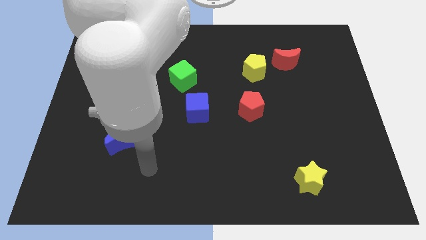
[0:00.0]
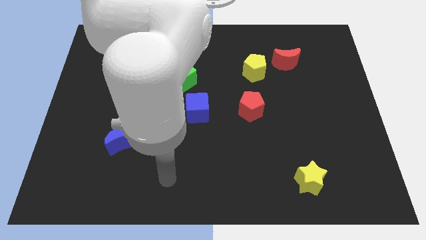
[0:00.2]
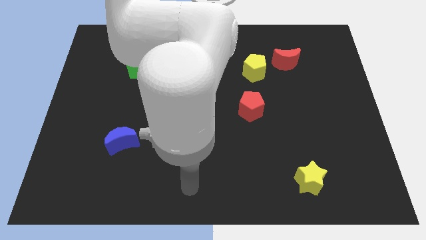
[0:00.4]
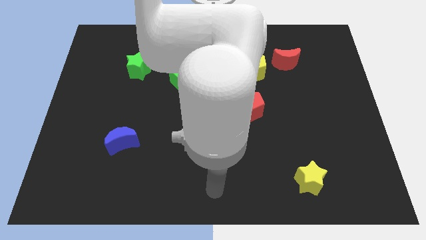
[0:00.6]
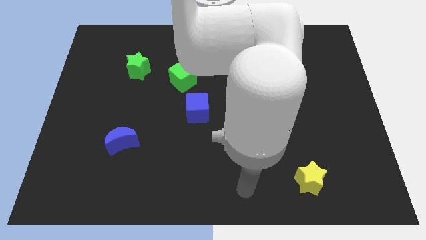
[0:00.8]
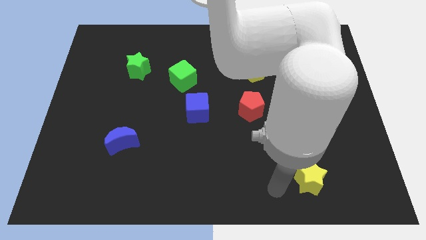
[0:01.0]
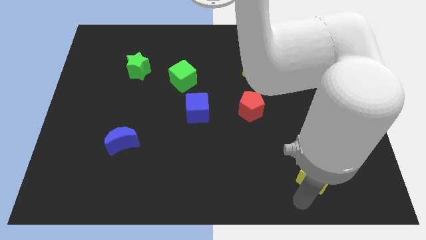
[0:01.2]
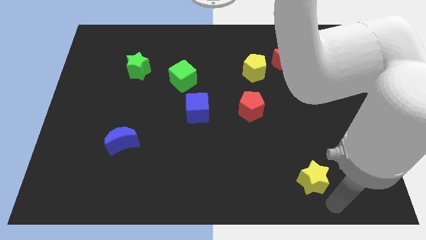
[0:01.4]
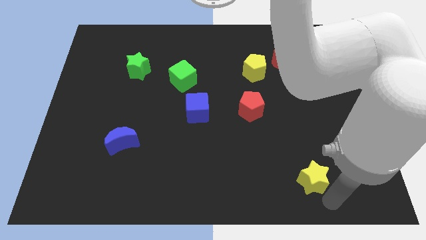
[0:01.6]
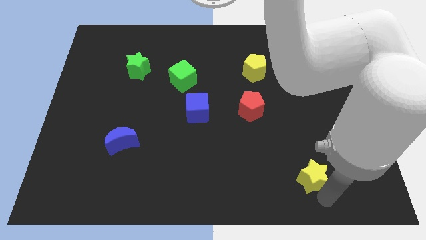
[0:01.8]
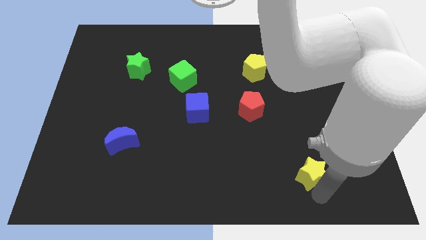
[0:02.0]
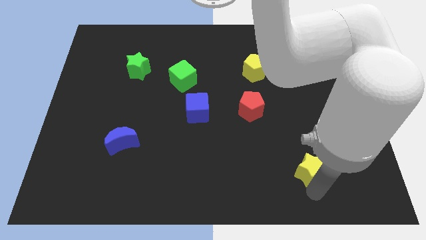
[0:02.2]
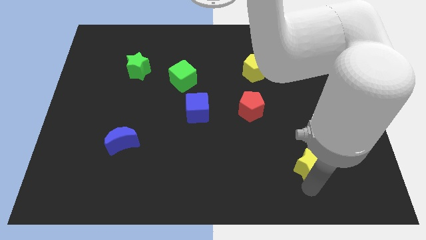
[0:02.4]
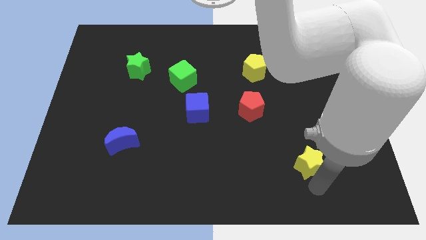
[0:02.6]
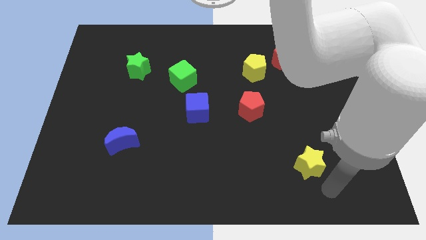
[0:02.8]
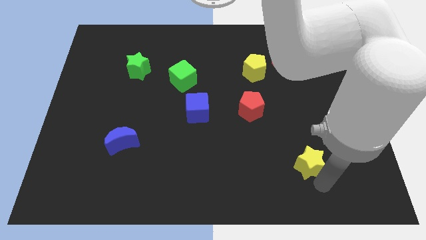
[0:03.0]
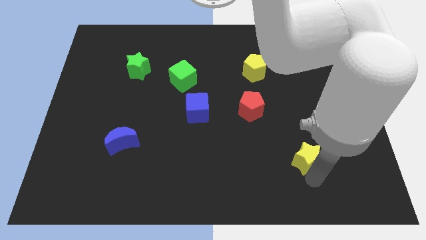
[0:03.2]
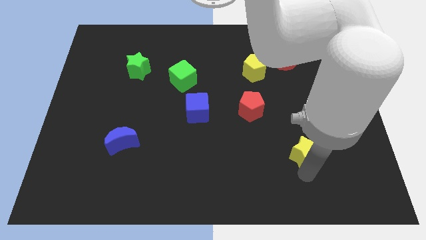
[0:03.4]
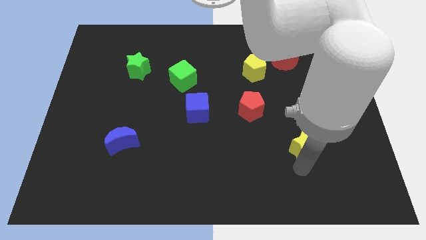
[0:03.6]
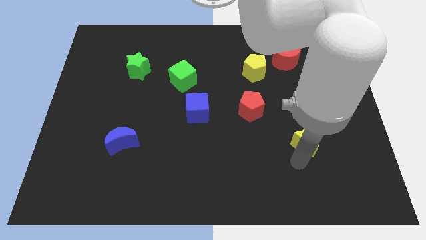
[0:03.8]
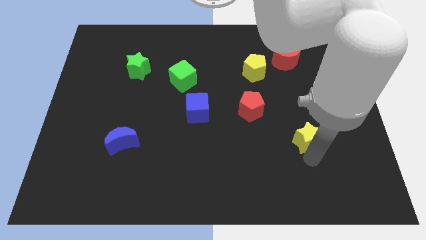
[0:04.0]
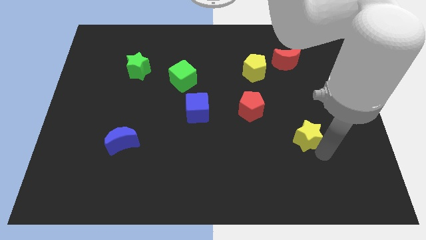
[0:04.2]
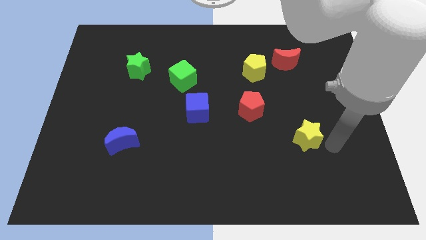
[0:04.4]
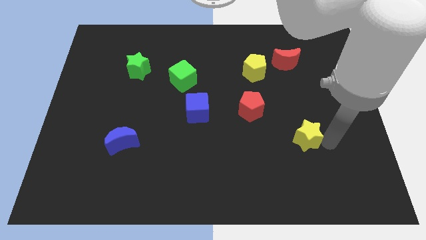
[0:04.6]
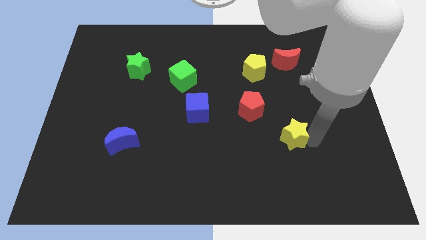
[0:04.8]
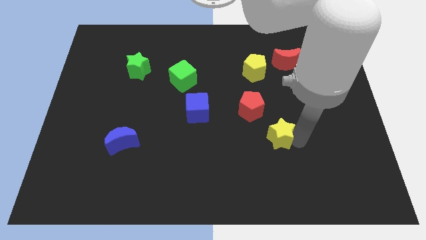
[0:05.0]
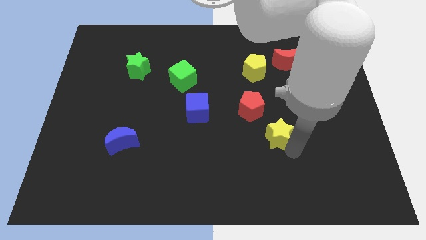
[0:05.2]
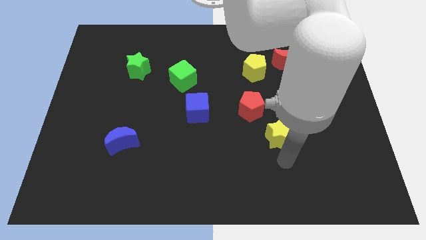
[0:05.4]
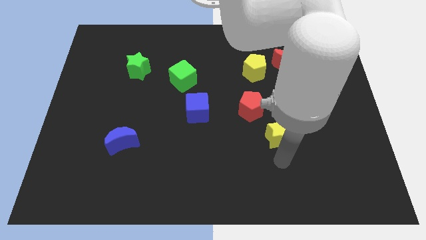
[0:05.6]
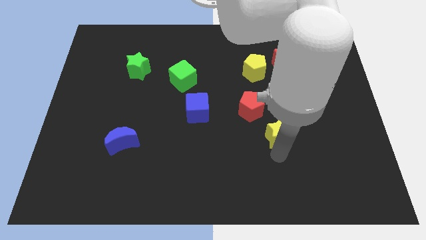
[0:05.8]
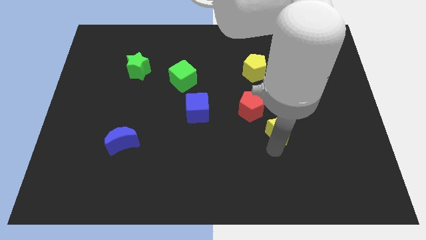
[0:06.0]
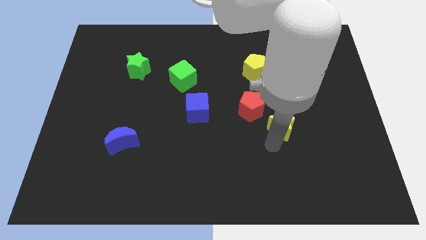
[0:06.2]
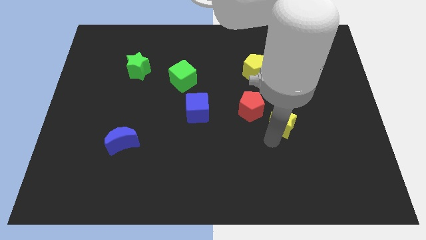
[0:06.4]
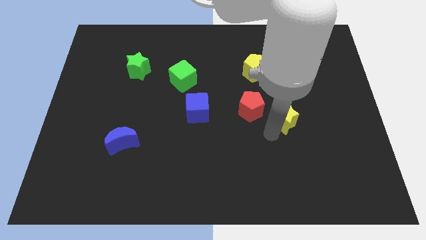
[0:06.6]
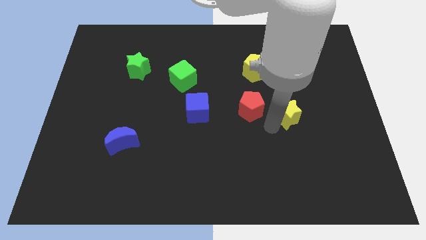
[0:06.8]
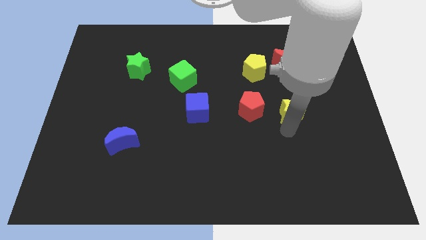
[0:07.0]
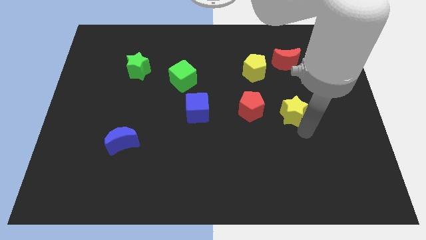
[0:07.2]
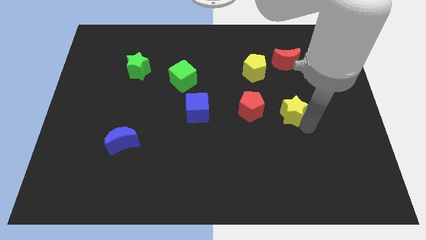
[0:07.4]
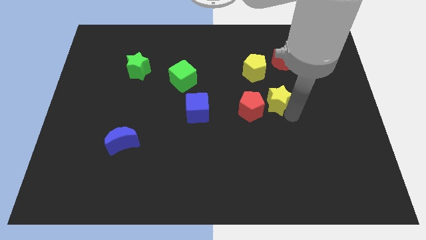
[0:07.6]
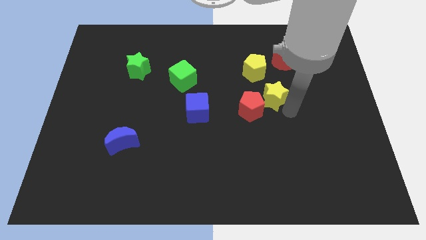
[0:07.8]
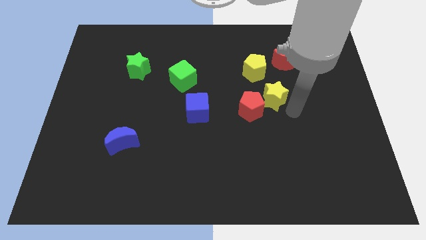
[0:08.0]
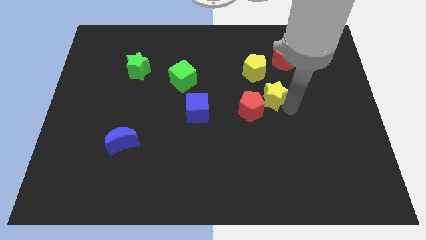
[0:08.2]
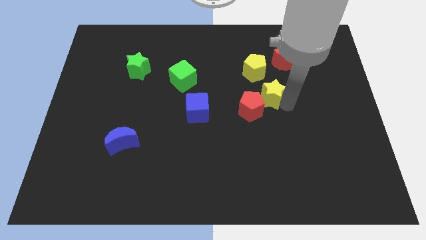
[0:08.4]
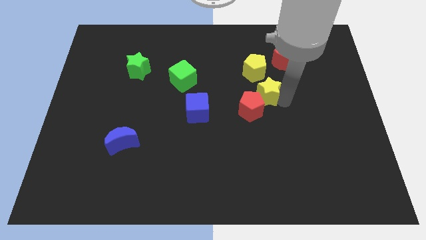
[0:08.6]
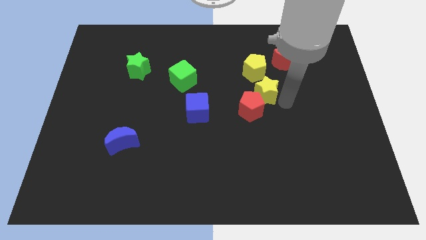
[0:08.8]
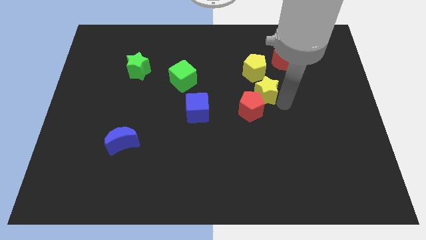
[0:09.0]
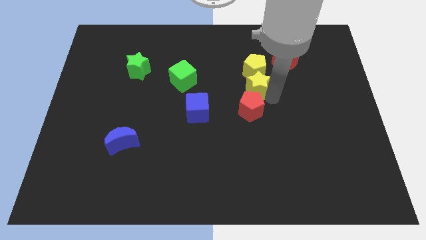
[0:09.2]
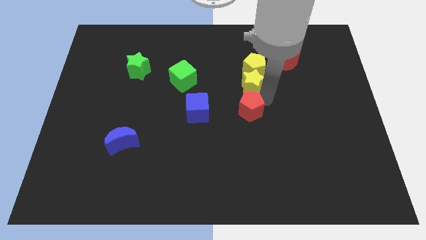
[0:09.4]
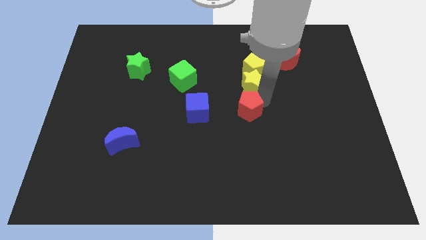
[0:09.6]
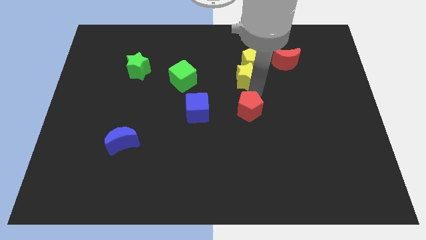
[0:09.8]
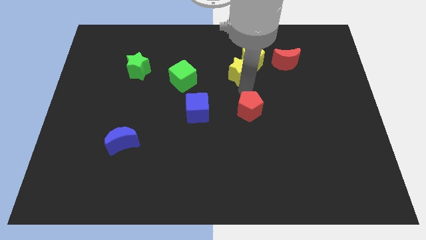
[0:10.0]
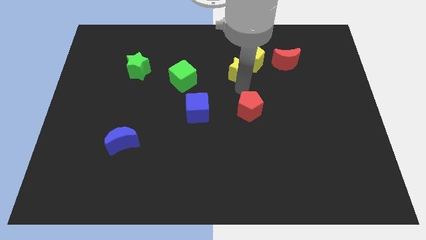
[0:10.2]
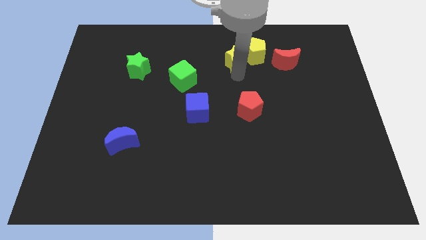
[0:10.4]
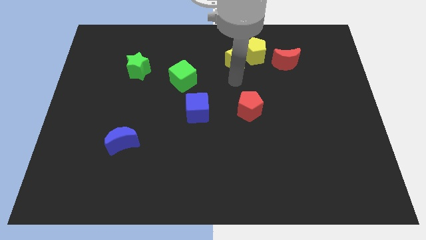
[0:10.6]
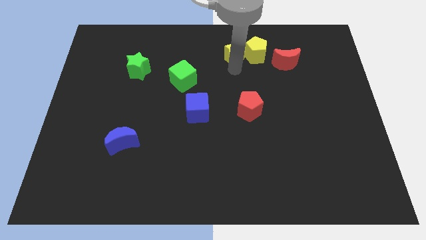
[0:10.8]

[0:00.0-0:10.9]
move the yellow star to the top left of the yellow pentagon

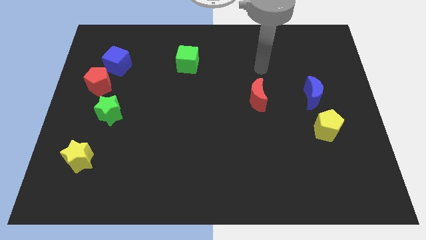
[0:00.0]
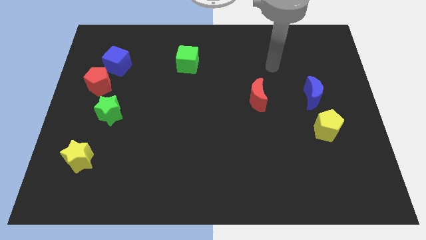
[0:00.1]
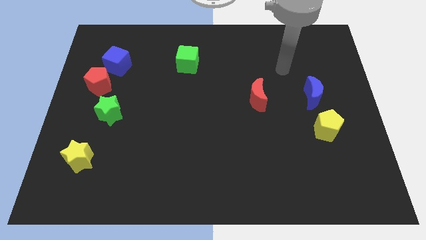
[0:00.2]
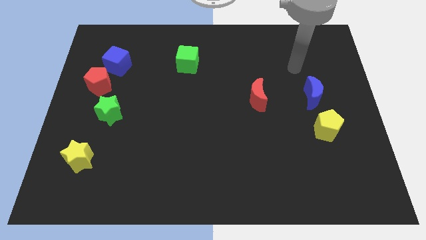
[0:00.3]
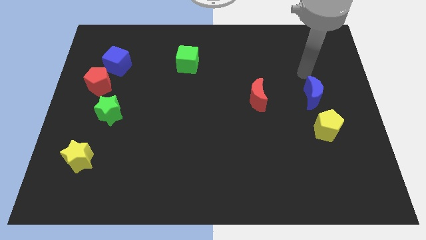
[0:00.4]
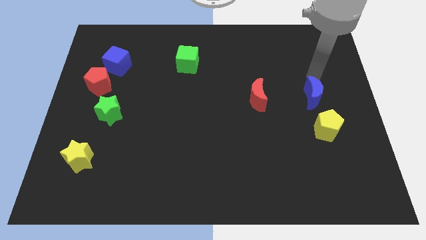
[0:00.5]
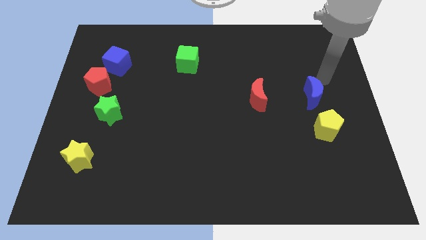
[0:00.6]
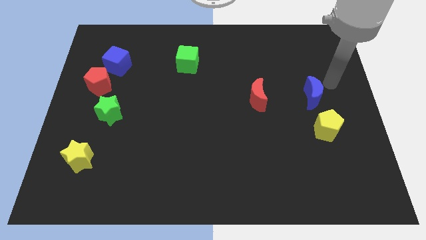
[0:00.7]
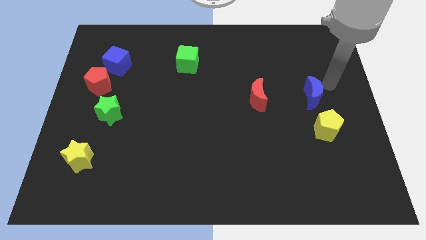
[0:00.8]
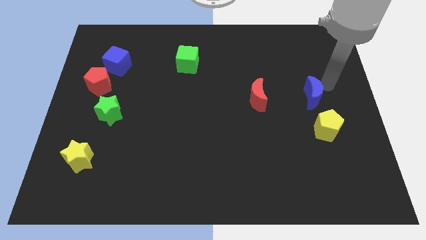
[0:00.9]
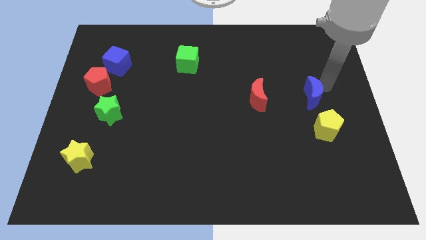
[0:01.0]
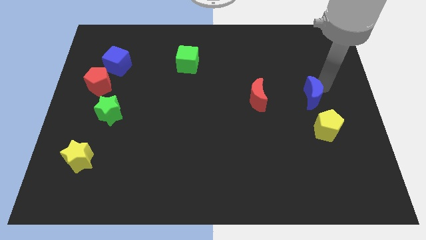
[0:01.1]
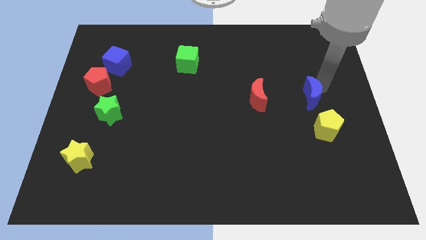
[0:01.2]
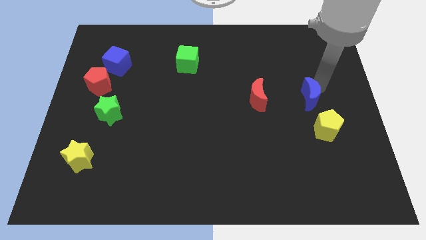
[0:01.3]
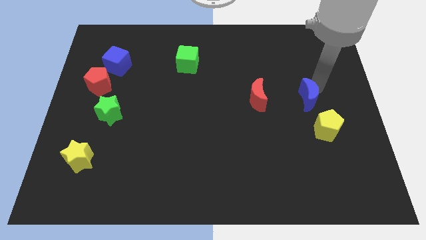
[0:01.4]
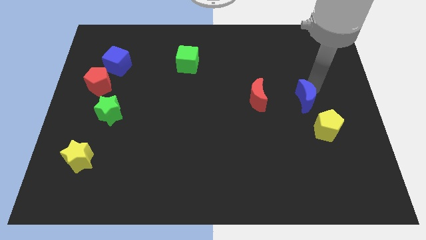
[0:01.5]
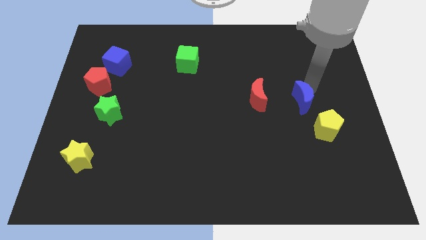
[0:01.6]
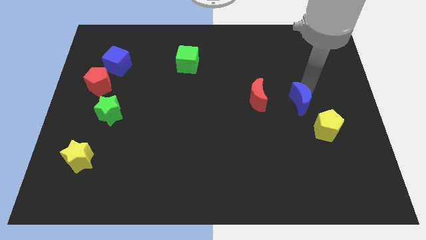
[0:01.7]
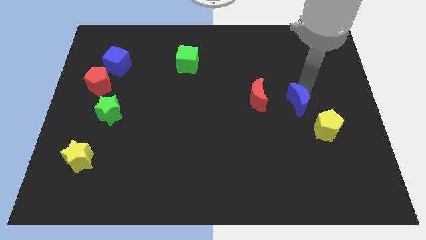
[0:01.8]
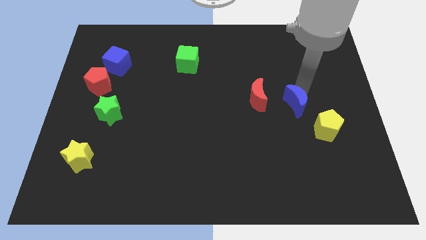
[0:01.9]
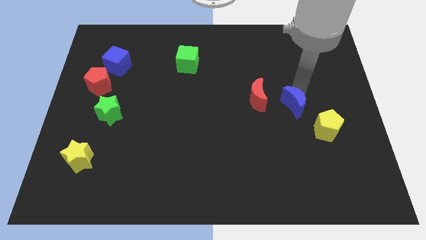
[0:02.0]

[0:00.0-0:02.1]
push the blue moon diagonally down and to the right of the red moon

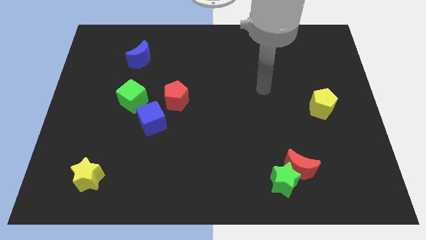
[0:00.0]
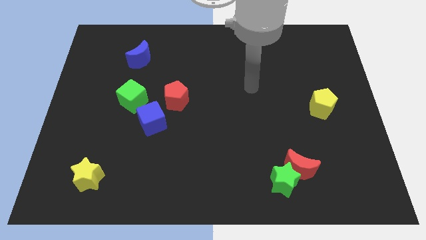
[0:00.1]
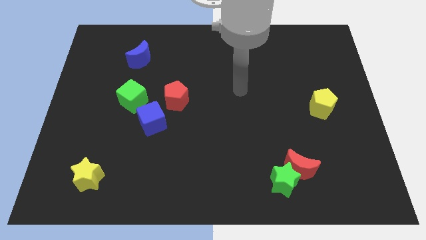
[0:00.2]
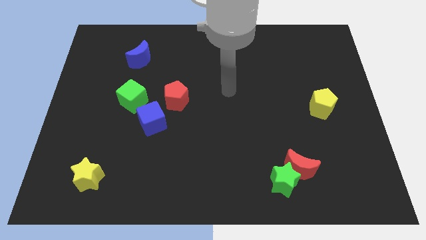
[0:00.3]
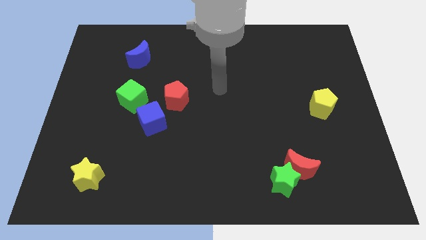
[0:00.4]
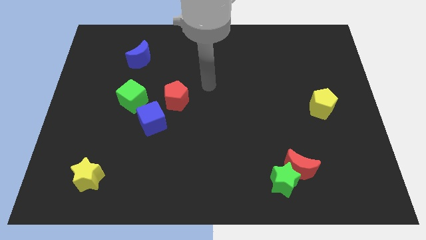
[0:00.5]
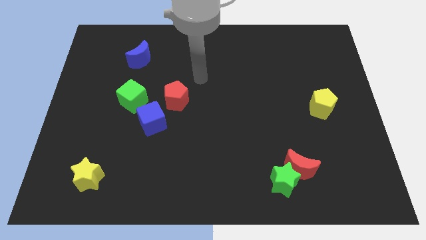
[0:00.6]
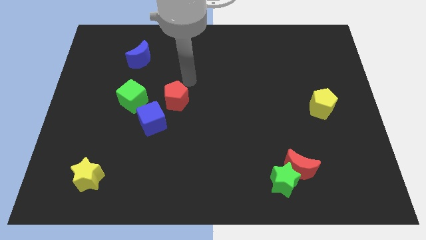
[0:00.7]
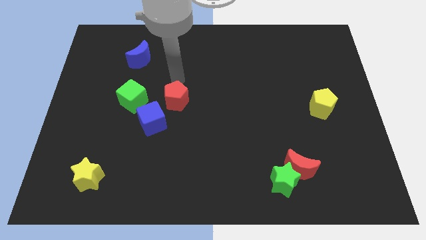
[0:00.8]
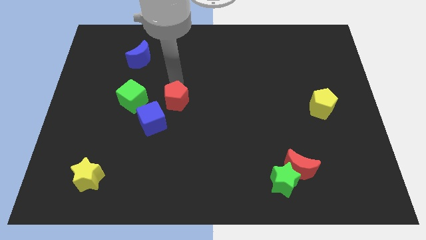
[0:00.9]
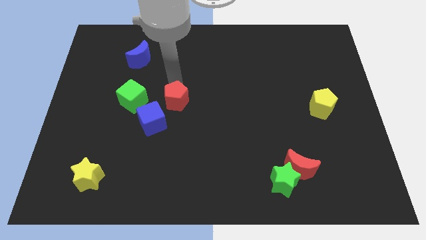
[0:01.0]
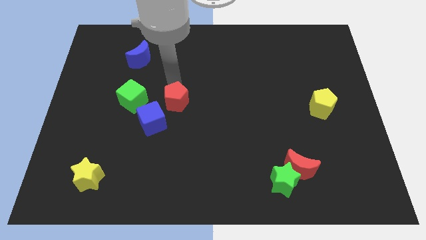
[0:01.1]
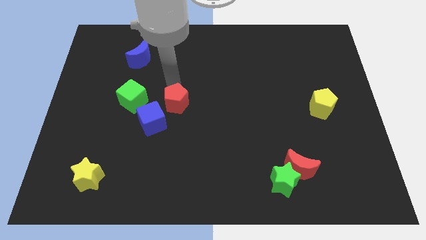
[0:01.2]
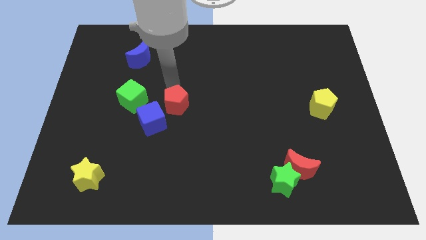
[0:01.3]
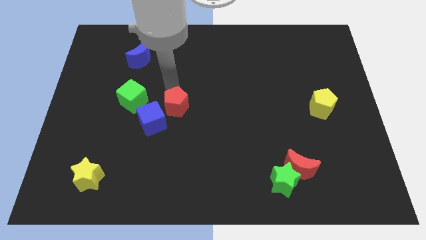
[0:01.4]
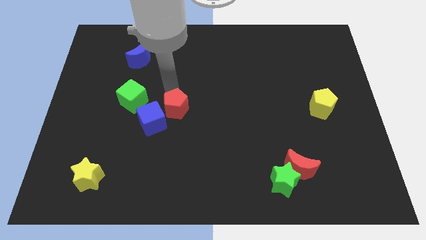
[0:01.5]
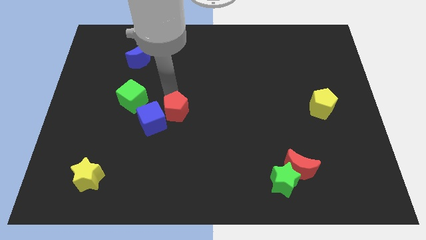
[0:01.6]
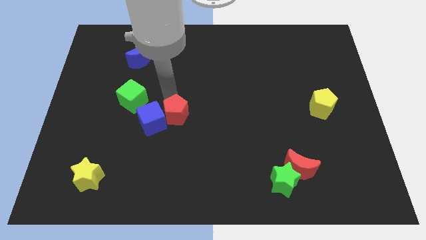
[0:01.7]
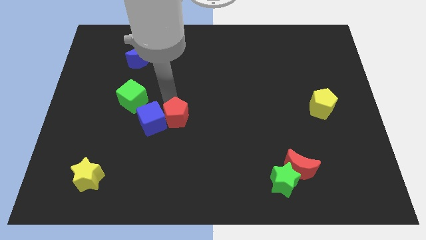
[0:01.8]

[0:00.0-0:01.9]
move the red pentagon to the bottom right of the blue cube
